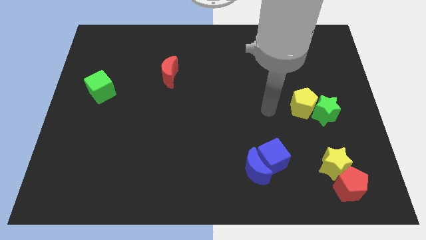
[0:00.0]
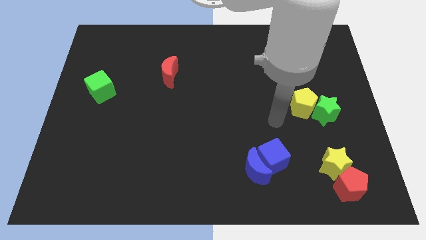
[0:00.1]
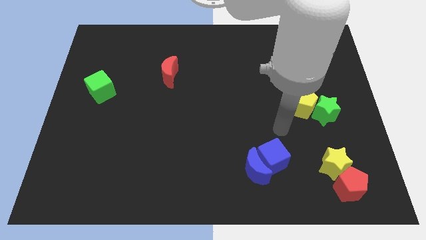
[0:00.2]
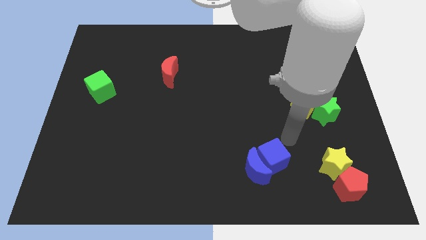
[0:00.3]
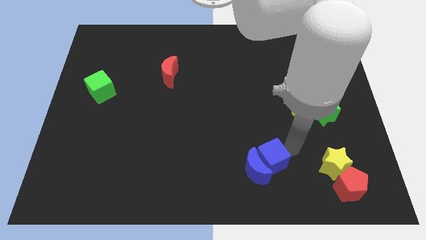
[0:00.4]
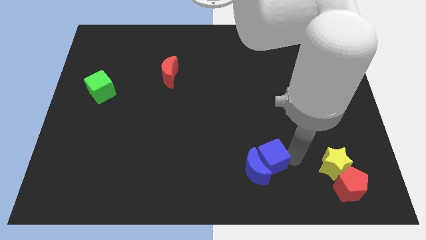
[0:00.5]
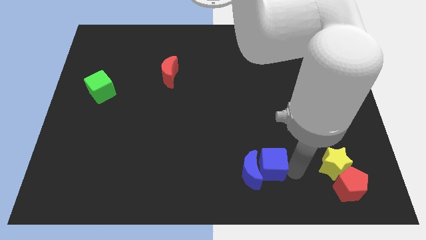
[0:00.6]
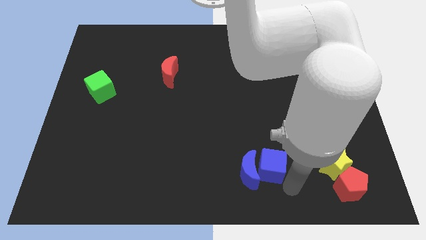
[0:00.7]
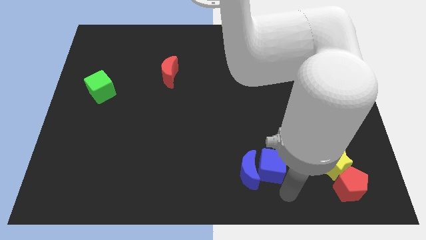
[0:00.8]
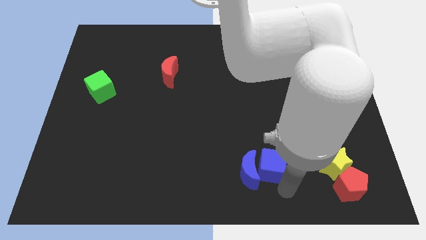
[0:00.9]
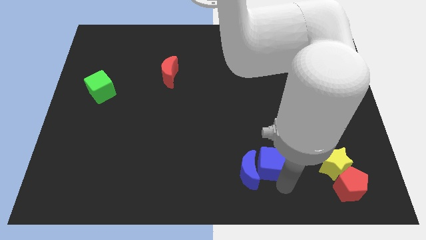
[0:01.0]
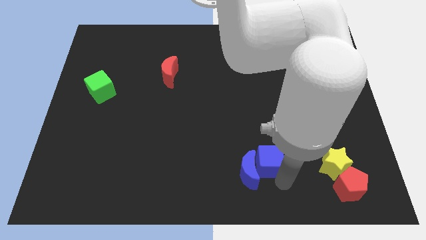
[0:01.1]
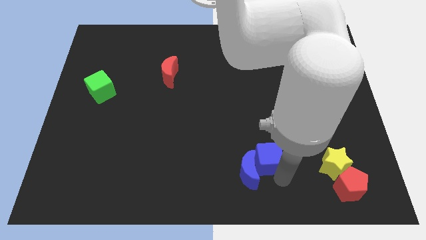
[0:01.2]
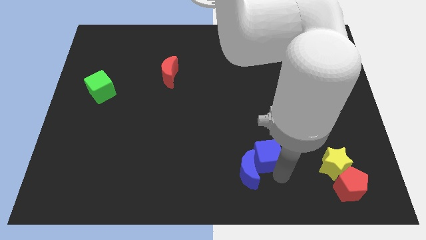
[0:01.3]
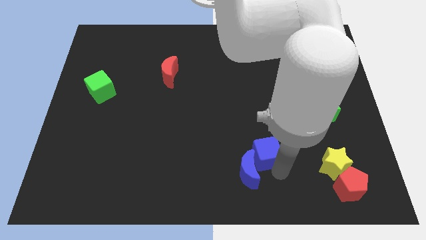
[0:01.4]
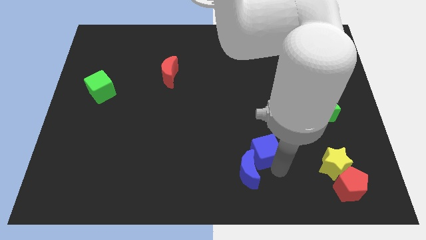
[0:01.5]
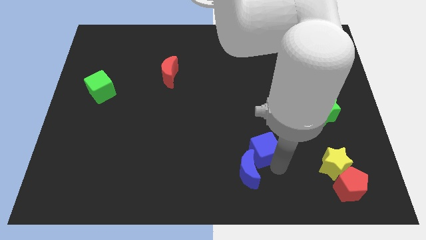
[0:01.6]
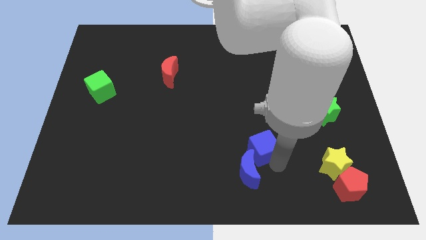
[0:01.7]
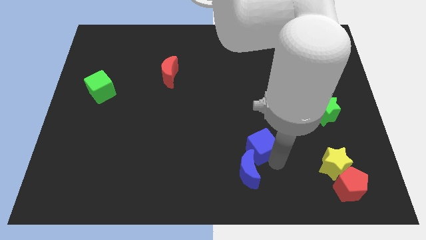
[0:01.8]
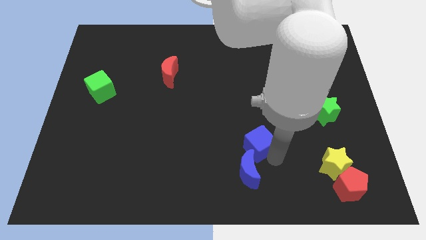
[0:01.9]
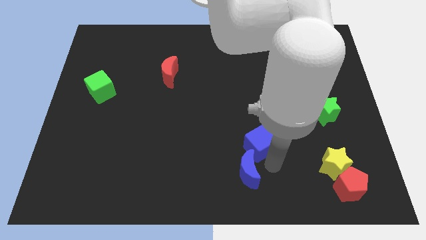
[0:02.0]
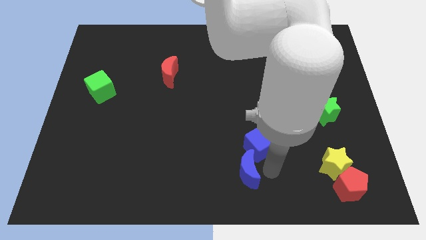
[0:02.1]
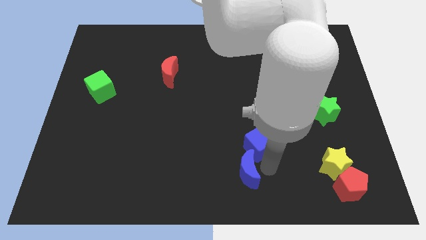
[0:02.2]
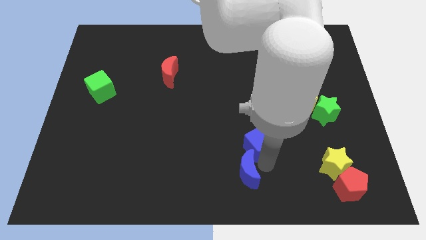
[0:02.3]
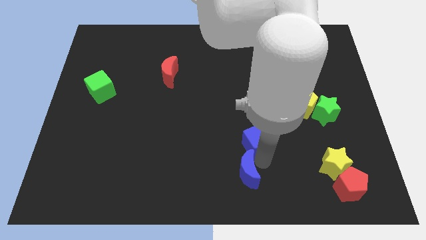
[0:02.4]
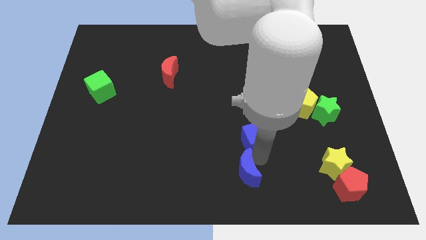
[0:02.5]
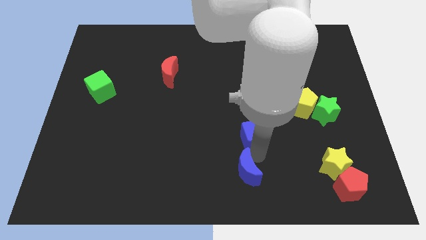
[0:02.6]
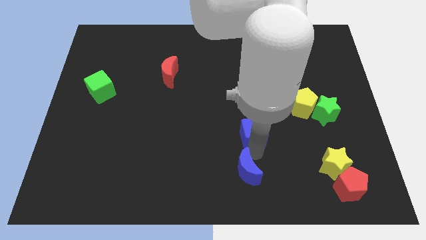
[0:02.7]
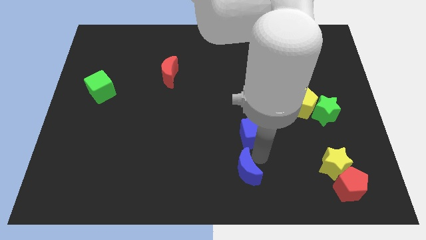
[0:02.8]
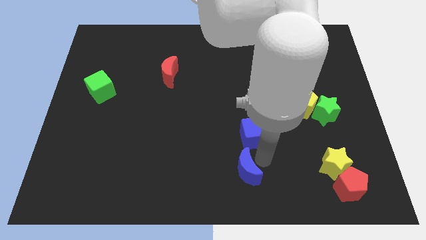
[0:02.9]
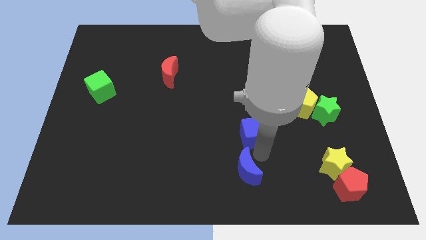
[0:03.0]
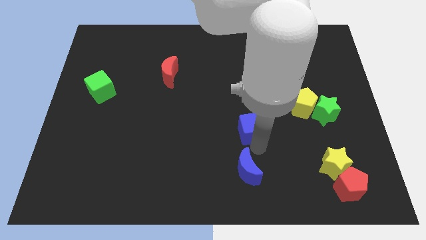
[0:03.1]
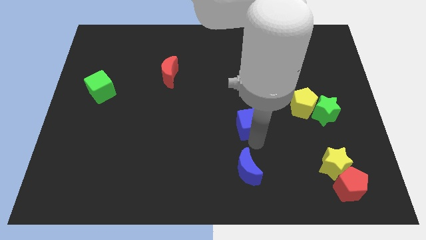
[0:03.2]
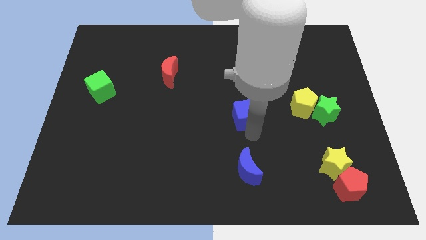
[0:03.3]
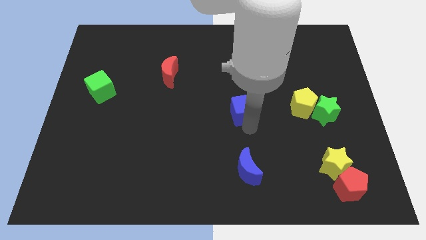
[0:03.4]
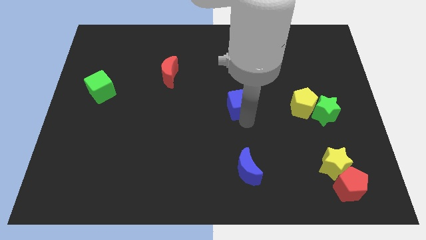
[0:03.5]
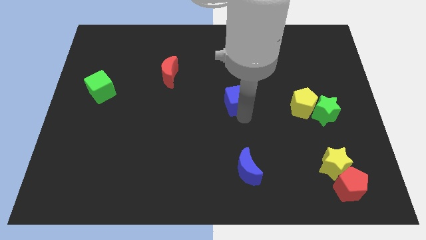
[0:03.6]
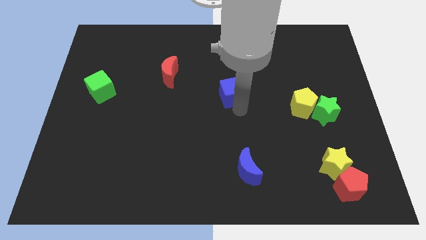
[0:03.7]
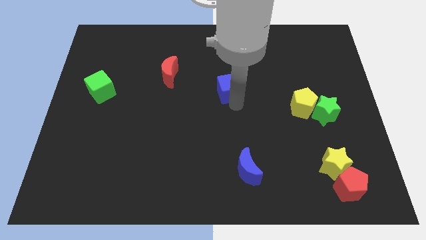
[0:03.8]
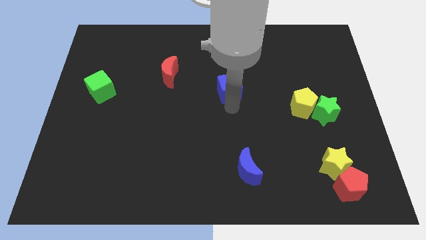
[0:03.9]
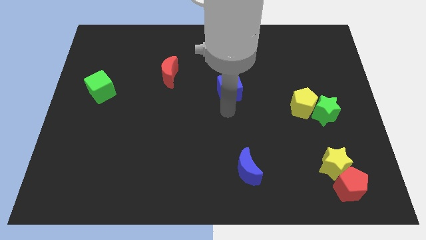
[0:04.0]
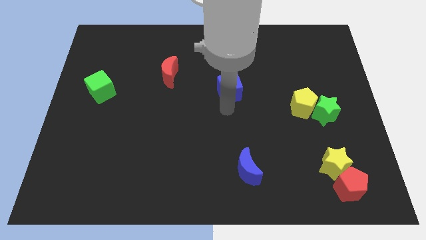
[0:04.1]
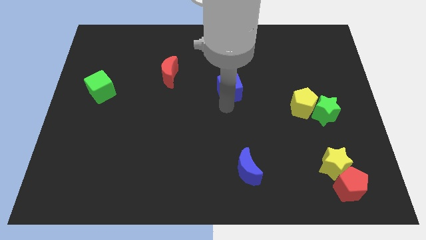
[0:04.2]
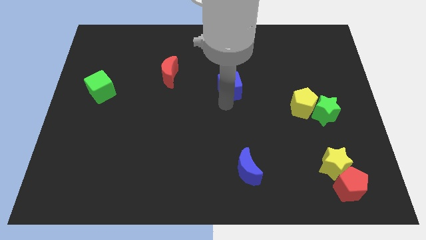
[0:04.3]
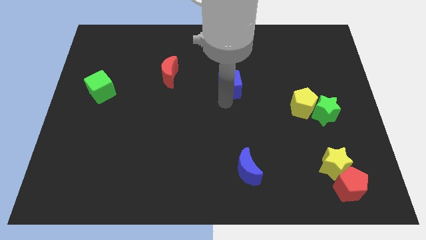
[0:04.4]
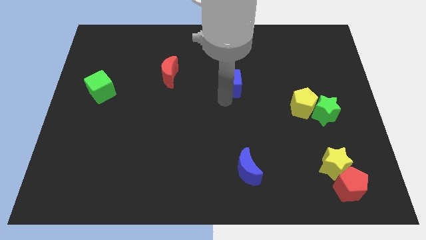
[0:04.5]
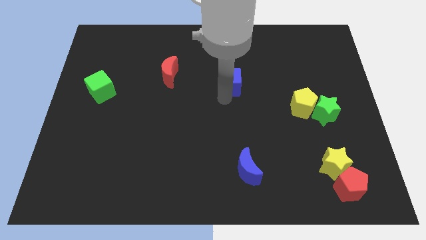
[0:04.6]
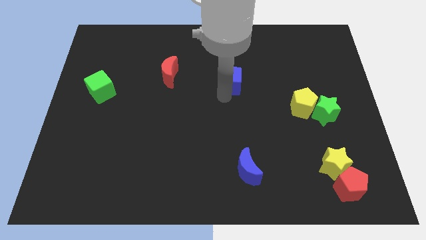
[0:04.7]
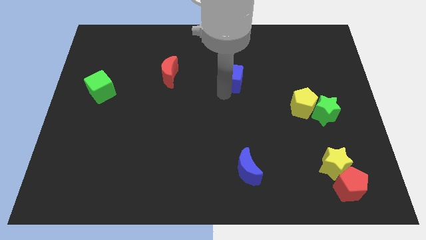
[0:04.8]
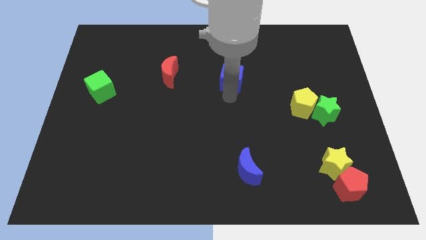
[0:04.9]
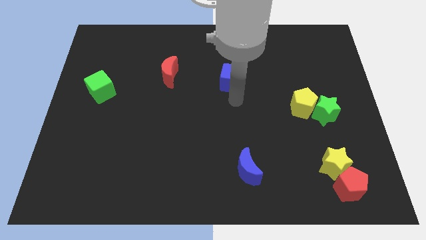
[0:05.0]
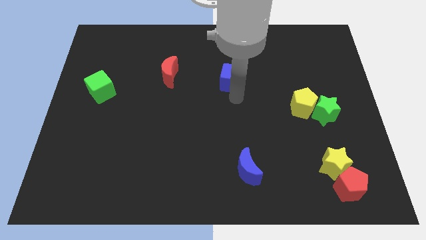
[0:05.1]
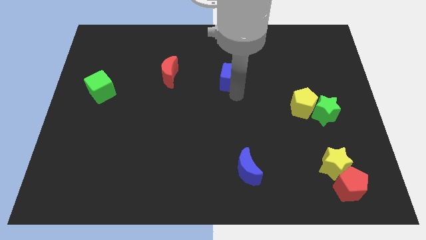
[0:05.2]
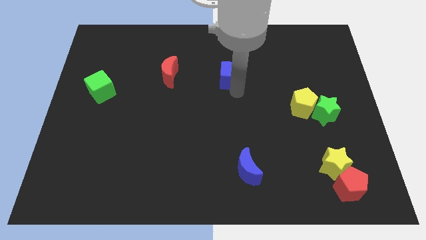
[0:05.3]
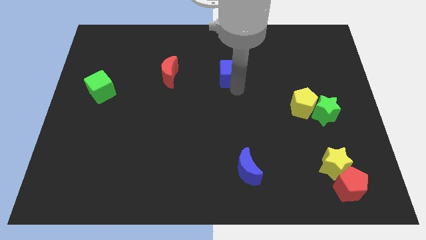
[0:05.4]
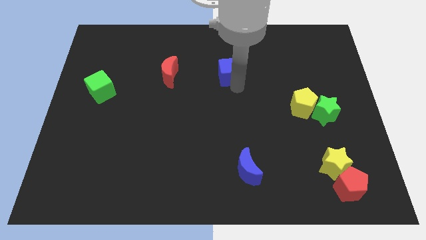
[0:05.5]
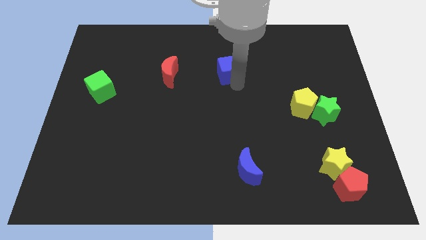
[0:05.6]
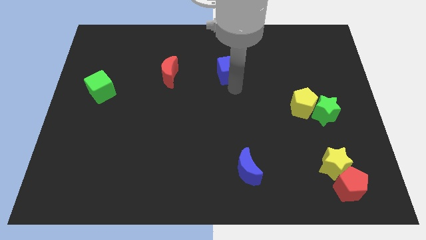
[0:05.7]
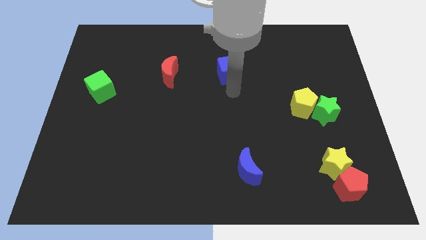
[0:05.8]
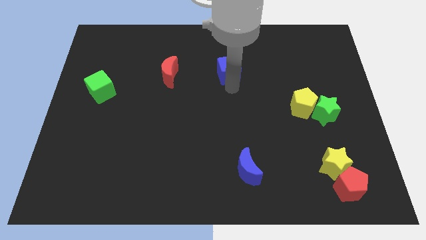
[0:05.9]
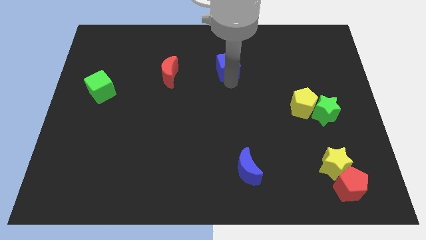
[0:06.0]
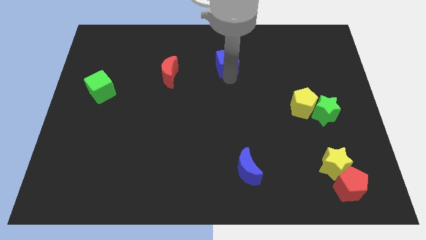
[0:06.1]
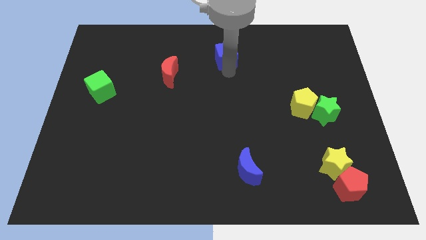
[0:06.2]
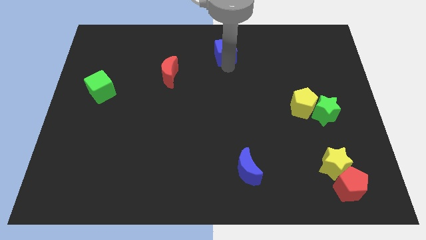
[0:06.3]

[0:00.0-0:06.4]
move the blue cube to the top side
